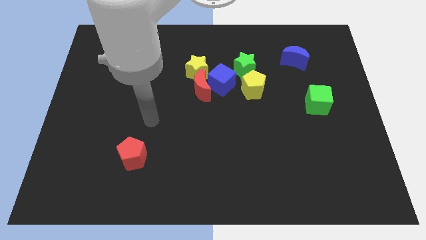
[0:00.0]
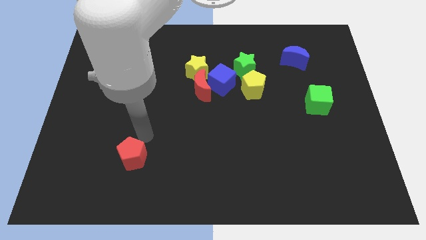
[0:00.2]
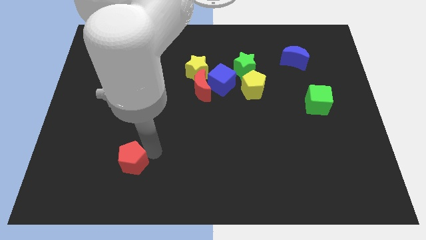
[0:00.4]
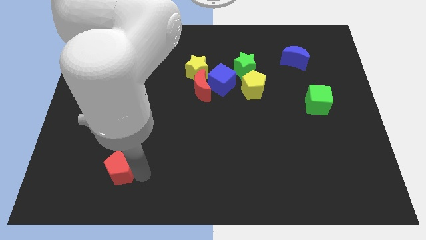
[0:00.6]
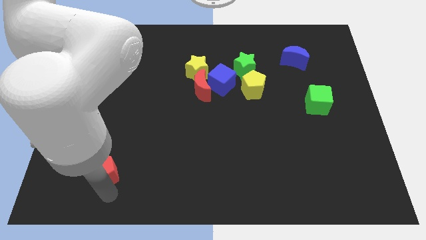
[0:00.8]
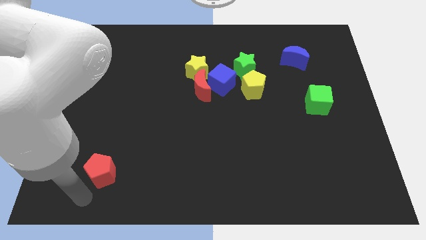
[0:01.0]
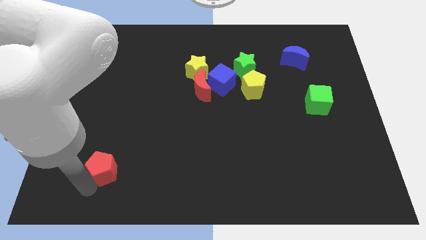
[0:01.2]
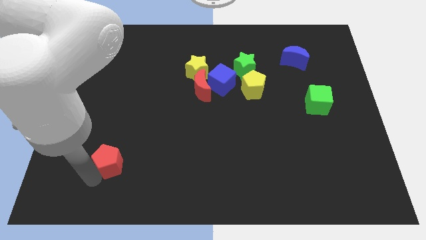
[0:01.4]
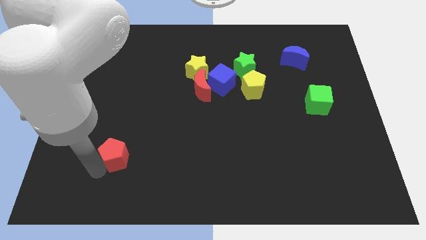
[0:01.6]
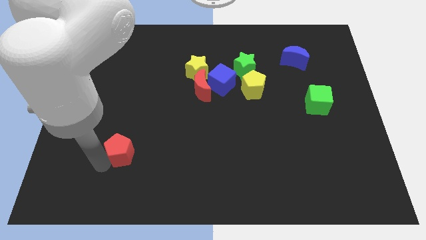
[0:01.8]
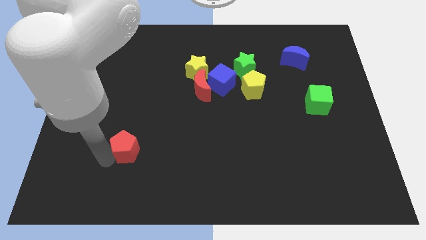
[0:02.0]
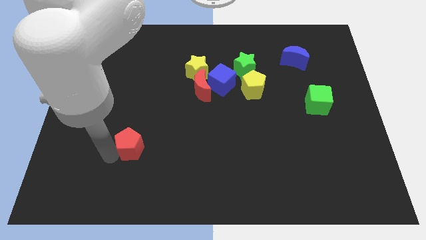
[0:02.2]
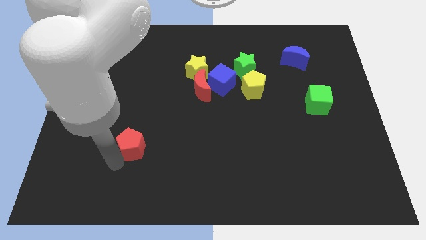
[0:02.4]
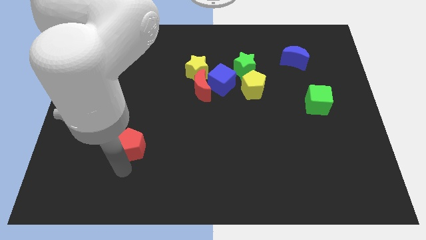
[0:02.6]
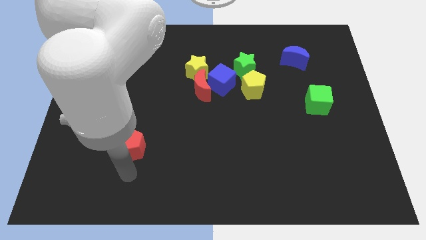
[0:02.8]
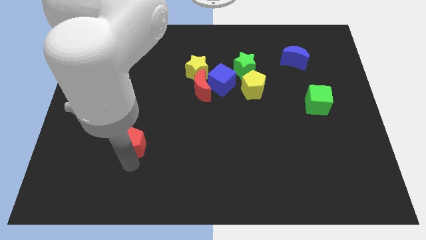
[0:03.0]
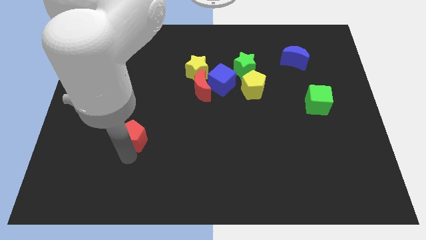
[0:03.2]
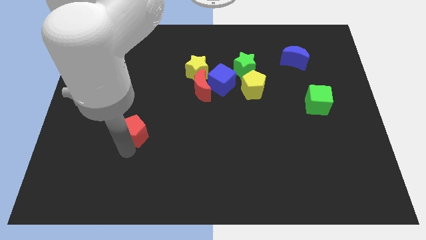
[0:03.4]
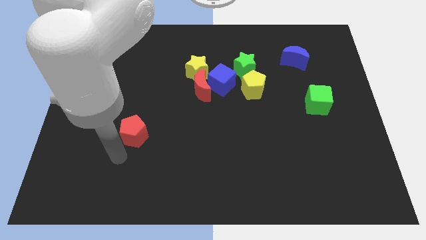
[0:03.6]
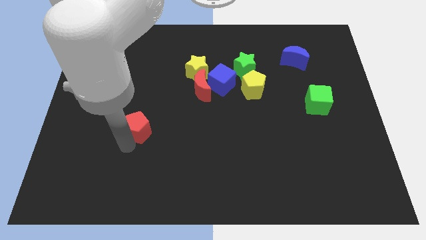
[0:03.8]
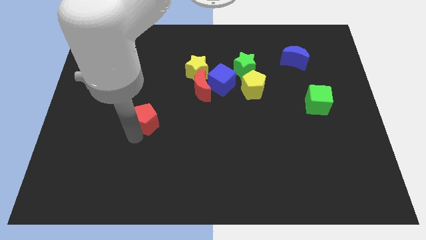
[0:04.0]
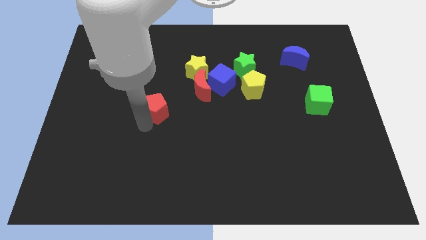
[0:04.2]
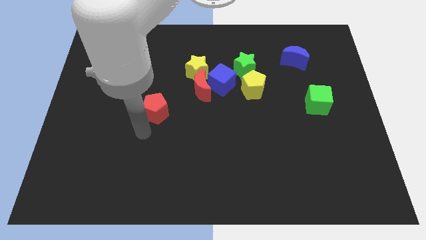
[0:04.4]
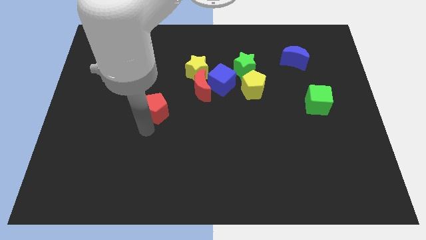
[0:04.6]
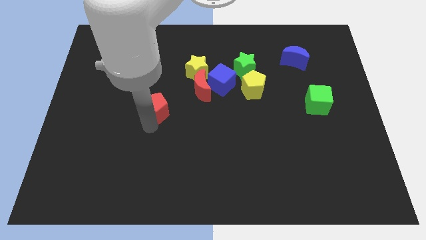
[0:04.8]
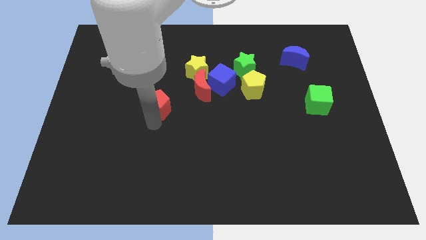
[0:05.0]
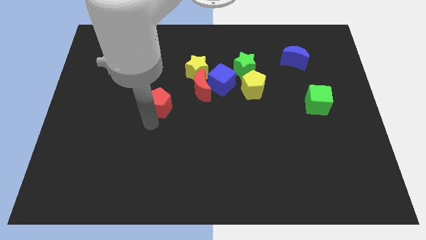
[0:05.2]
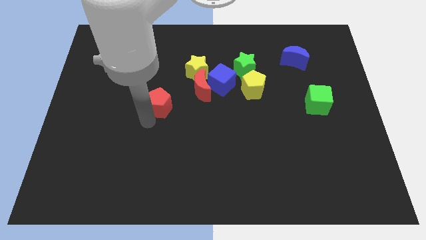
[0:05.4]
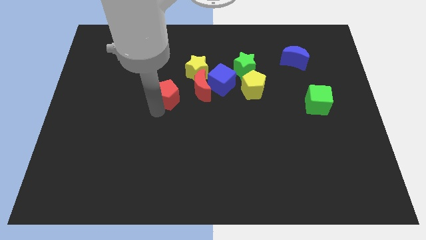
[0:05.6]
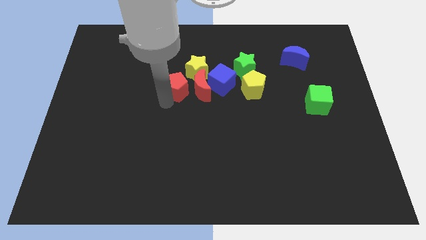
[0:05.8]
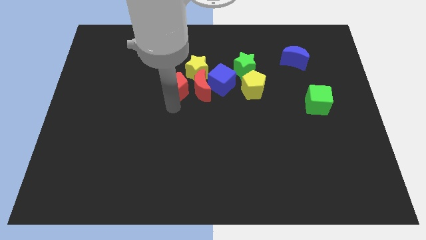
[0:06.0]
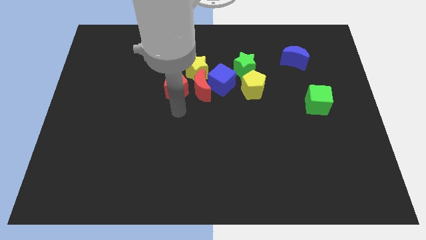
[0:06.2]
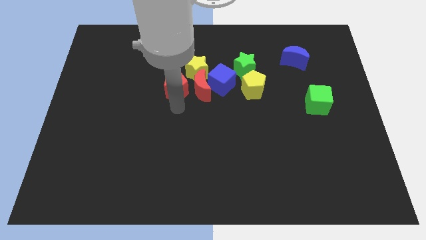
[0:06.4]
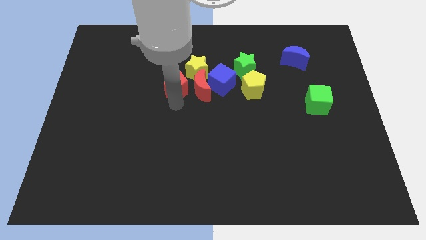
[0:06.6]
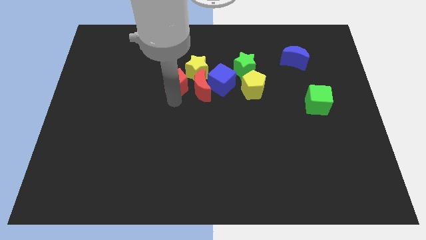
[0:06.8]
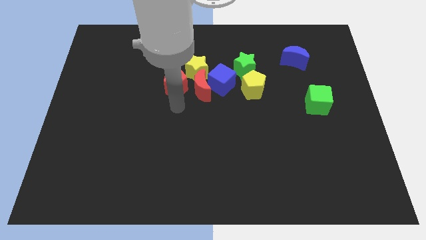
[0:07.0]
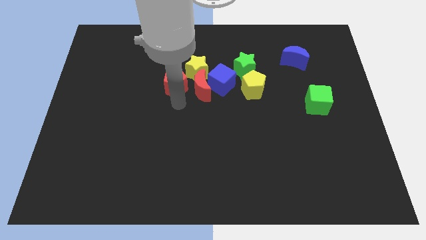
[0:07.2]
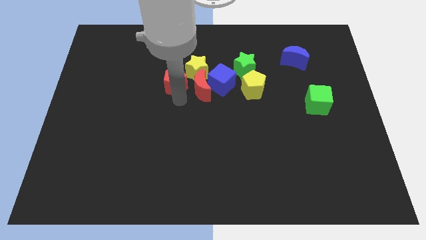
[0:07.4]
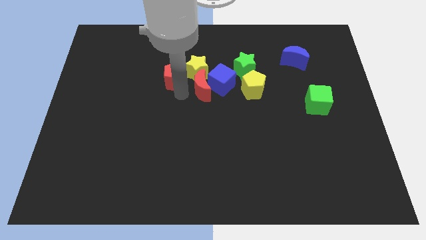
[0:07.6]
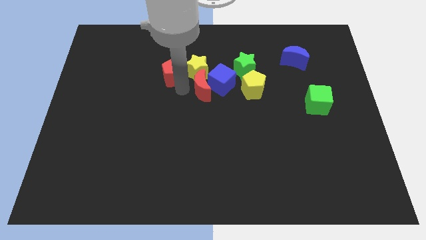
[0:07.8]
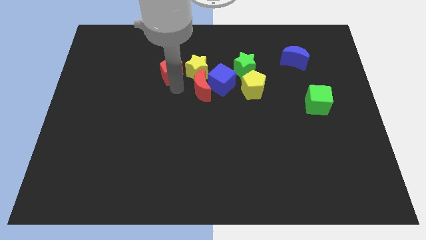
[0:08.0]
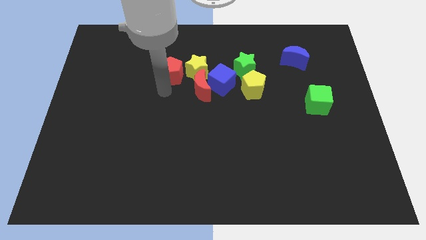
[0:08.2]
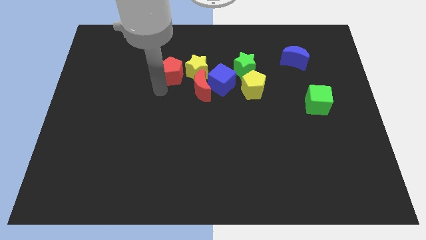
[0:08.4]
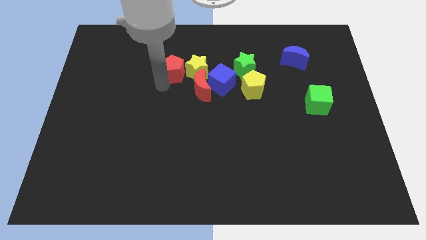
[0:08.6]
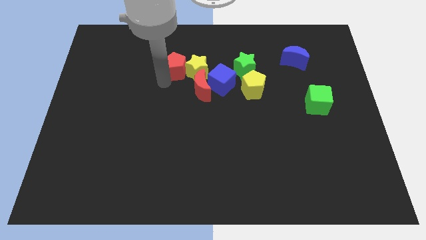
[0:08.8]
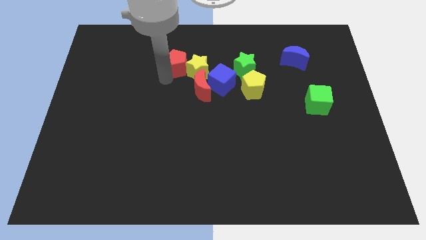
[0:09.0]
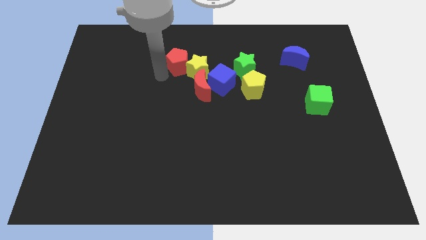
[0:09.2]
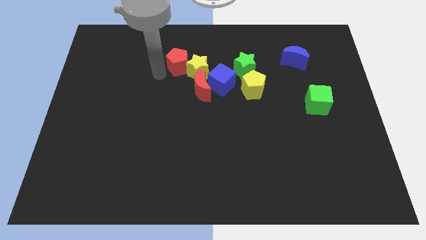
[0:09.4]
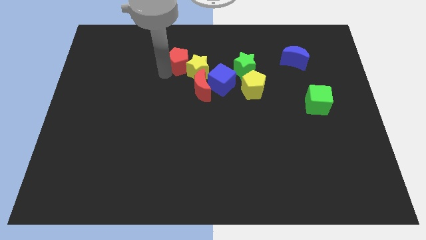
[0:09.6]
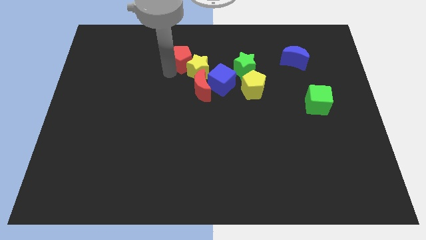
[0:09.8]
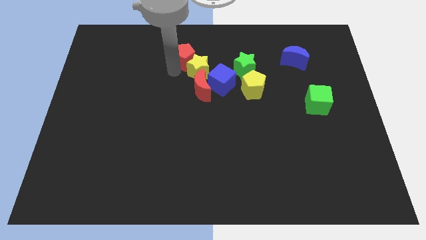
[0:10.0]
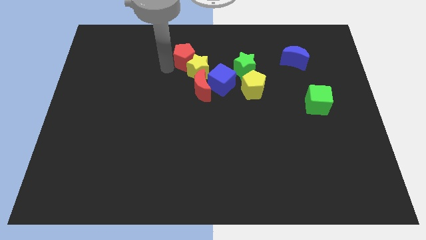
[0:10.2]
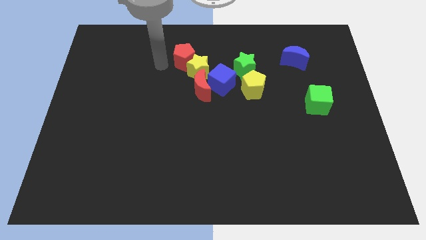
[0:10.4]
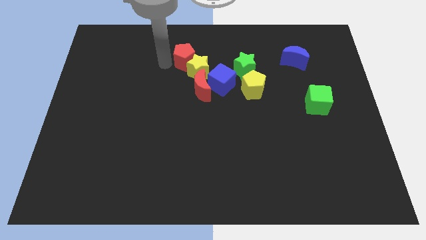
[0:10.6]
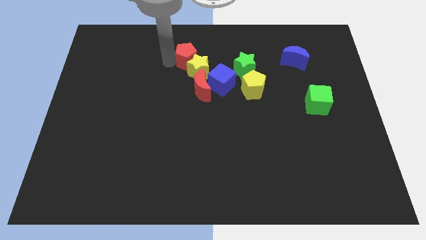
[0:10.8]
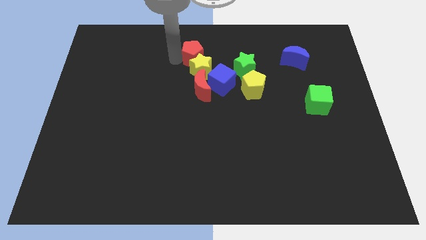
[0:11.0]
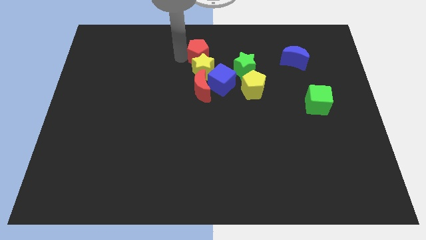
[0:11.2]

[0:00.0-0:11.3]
put the red pentagon diagonally up and to the right of the yellow star
